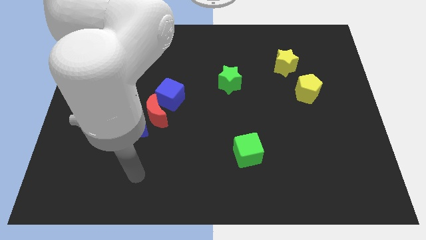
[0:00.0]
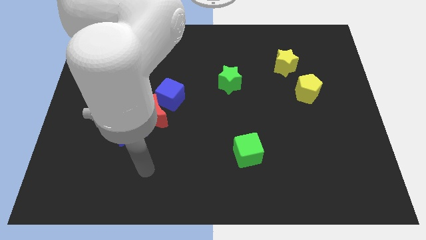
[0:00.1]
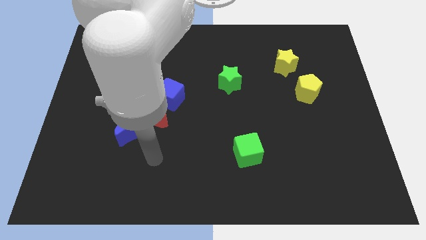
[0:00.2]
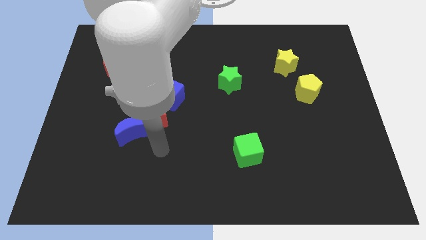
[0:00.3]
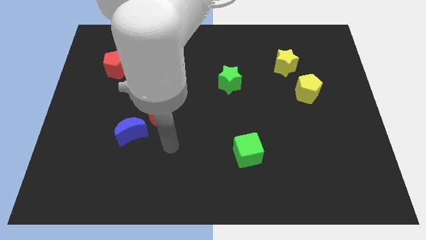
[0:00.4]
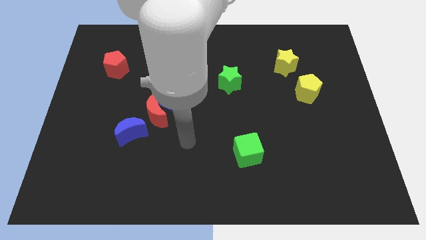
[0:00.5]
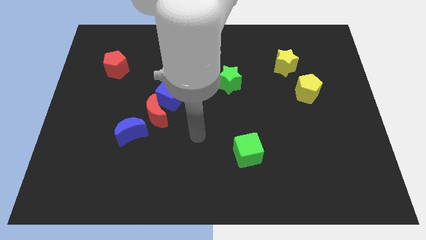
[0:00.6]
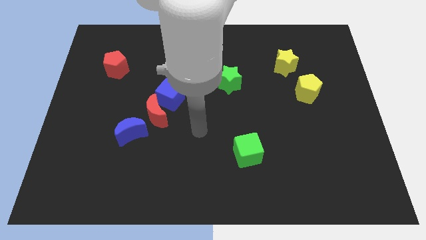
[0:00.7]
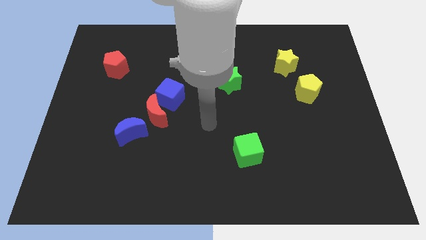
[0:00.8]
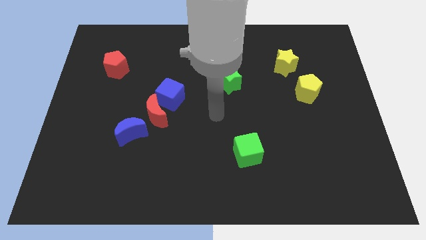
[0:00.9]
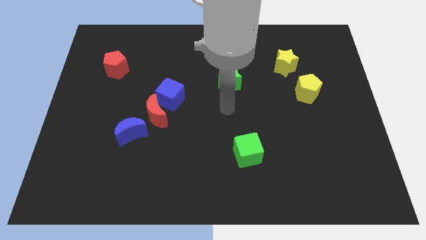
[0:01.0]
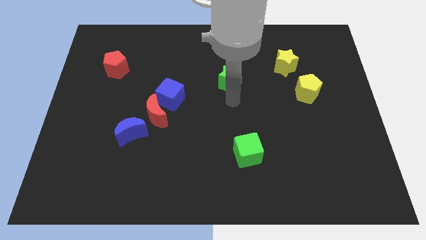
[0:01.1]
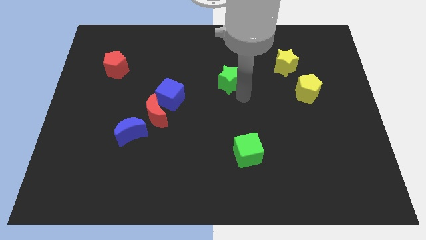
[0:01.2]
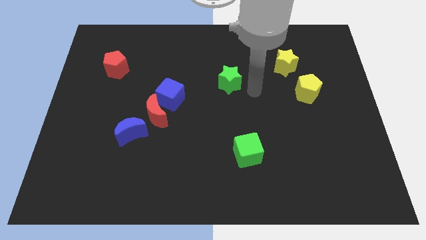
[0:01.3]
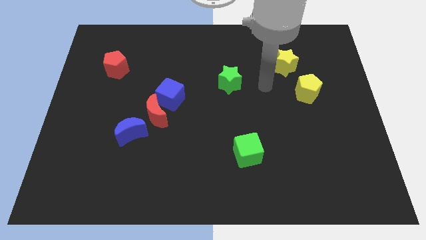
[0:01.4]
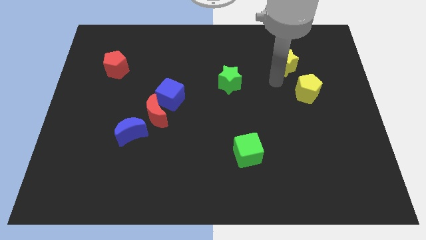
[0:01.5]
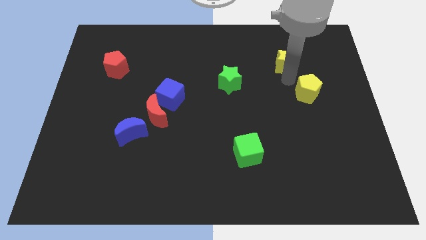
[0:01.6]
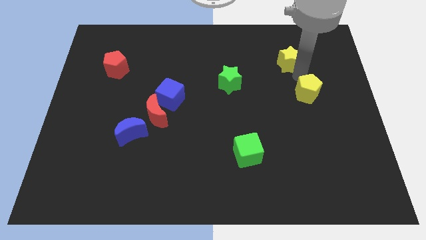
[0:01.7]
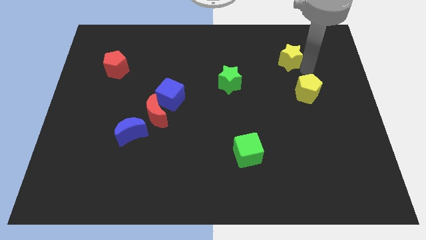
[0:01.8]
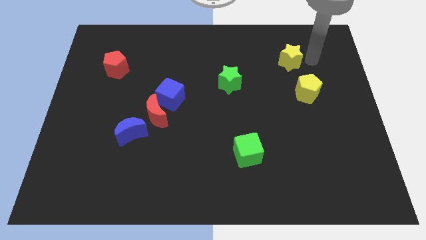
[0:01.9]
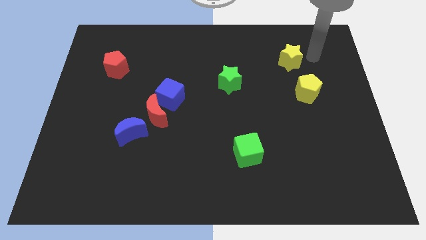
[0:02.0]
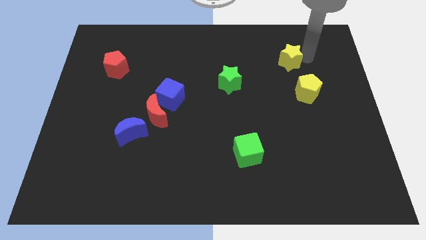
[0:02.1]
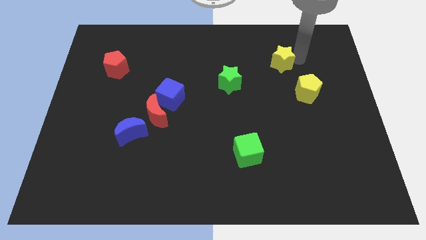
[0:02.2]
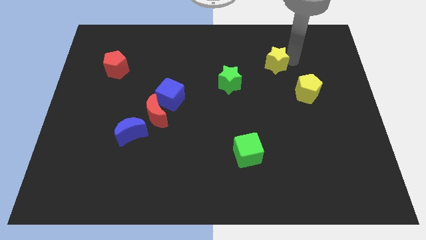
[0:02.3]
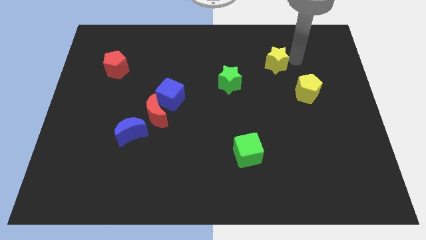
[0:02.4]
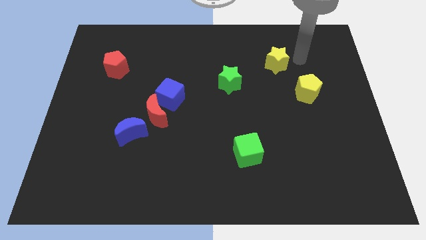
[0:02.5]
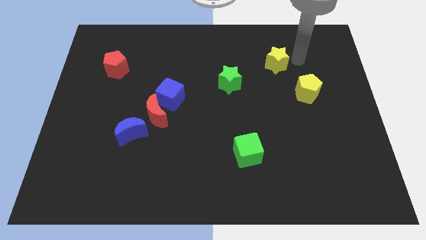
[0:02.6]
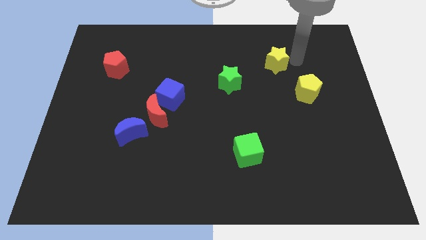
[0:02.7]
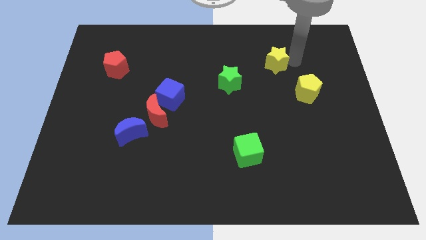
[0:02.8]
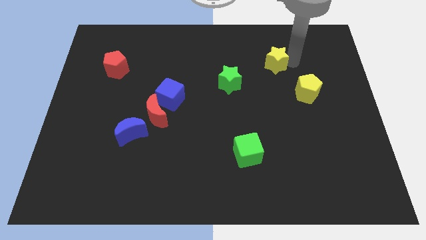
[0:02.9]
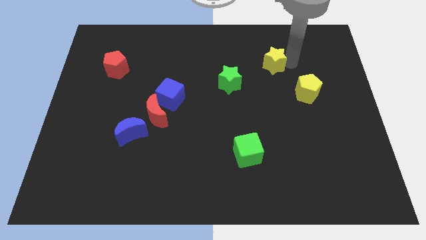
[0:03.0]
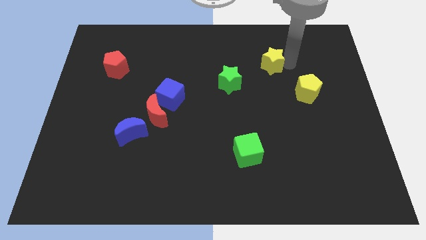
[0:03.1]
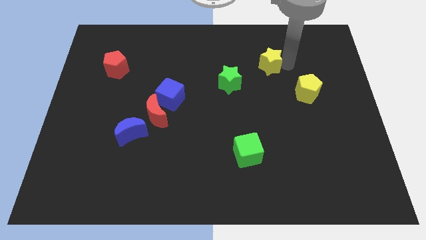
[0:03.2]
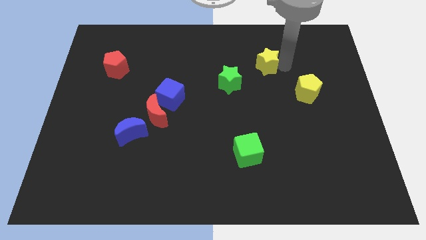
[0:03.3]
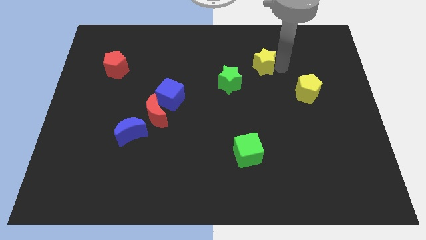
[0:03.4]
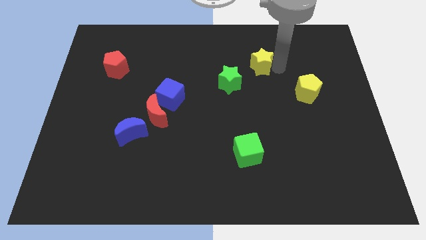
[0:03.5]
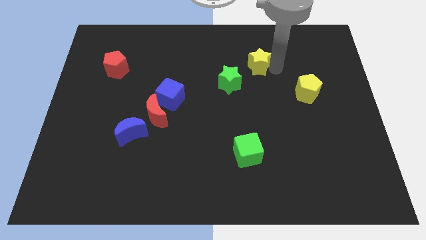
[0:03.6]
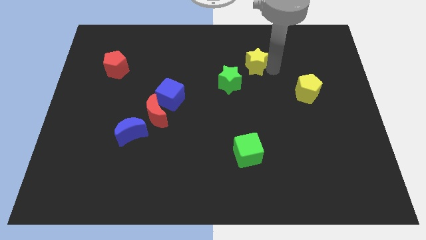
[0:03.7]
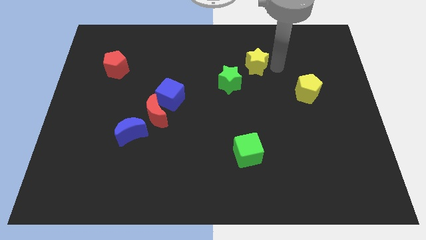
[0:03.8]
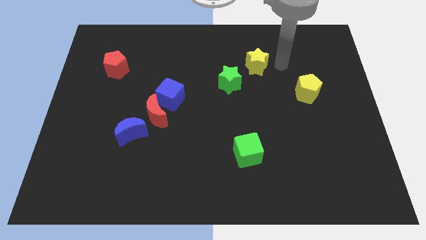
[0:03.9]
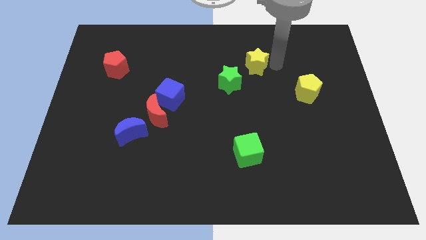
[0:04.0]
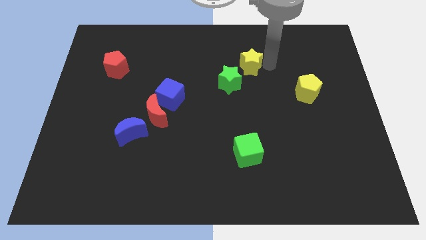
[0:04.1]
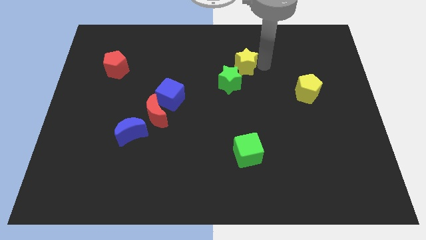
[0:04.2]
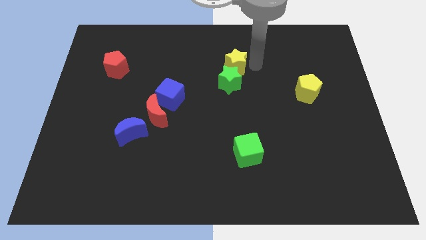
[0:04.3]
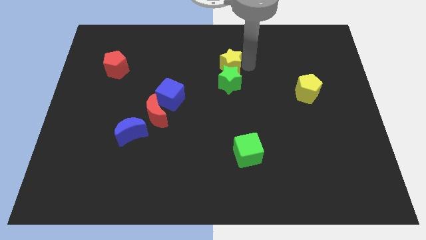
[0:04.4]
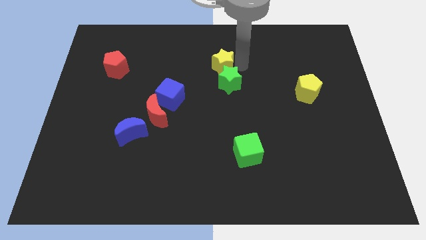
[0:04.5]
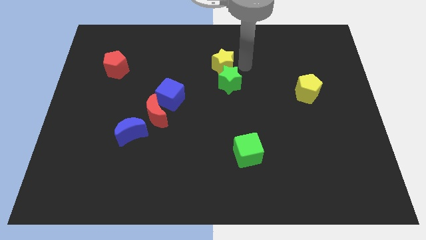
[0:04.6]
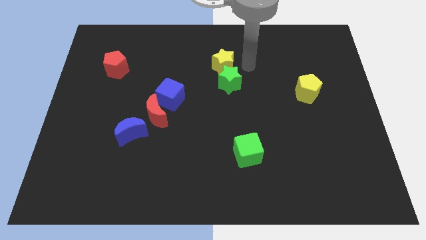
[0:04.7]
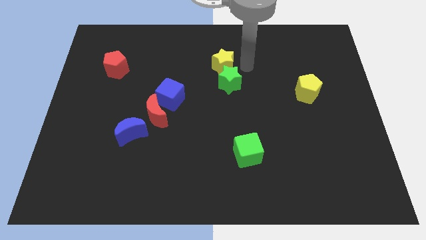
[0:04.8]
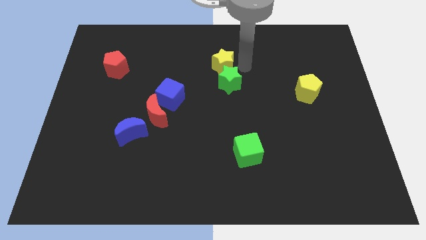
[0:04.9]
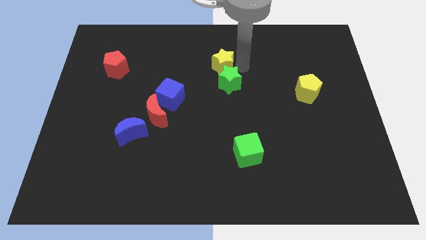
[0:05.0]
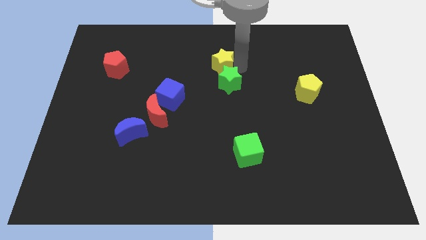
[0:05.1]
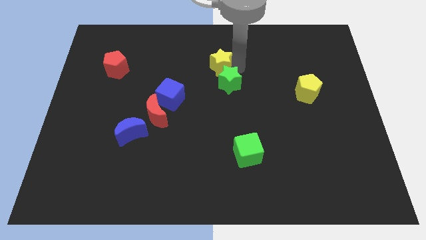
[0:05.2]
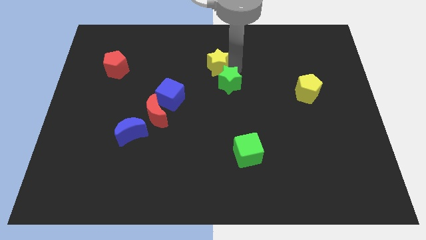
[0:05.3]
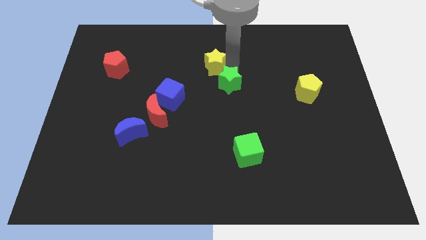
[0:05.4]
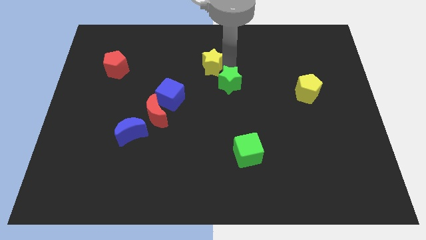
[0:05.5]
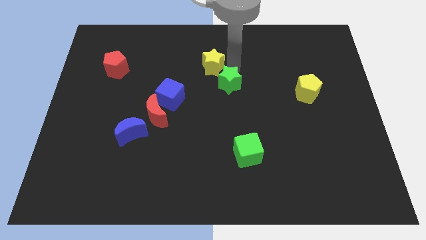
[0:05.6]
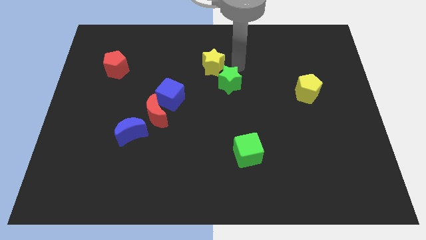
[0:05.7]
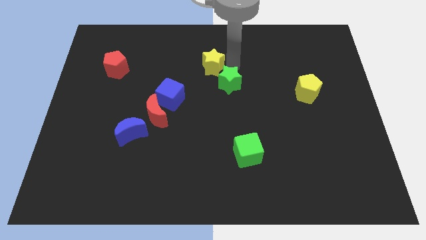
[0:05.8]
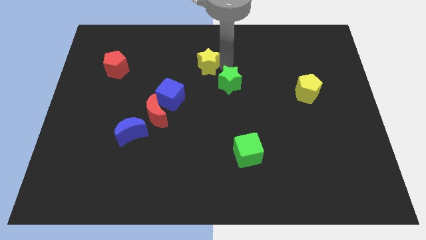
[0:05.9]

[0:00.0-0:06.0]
push the yellow star to the left

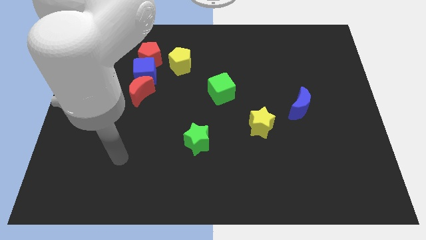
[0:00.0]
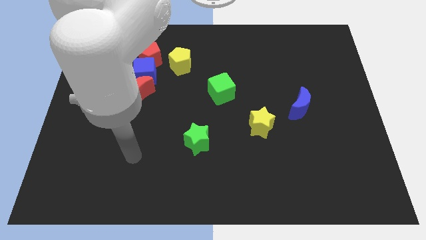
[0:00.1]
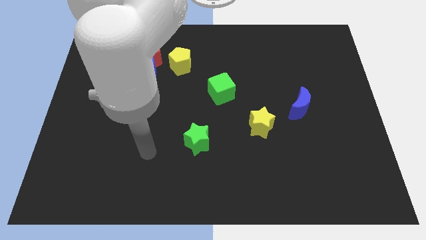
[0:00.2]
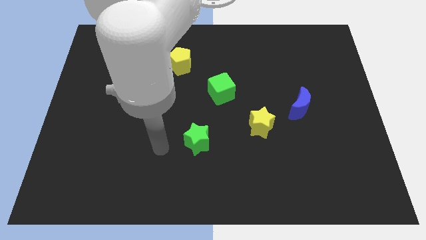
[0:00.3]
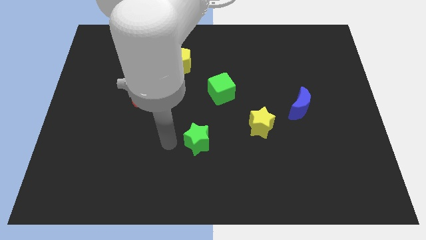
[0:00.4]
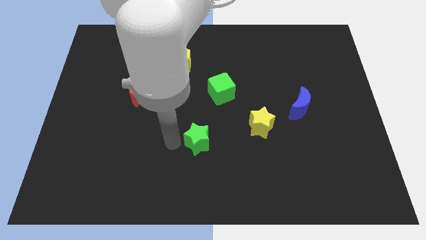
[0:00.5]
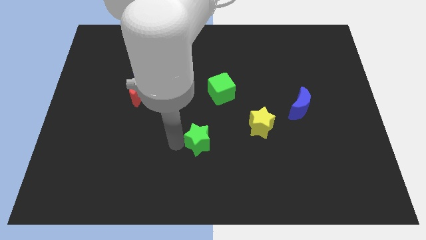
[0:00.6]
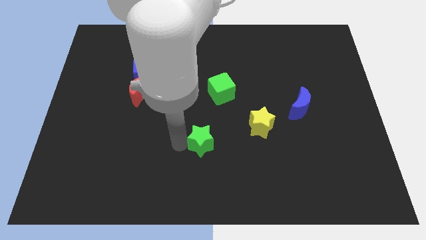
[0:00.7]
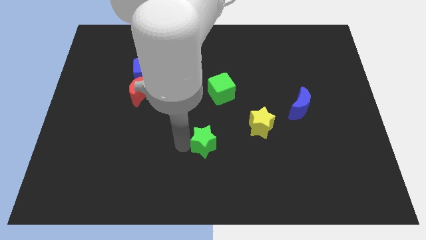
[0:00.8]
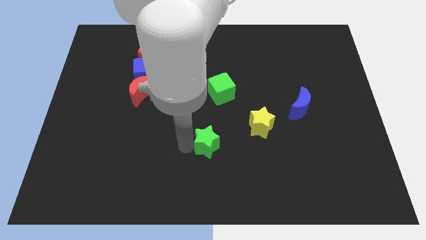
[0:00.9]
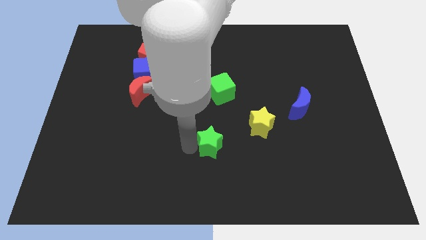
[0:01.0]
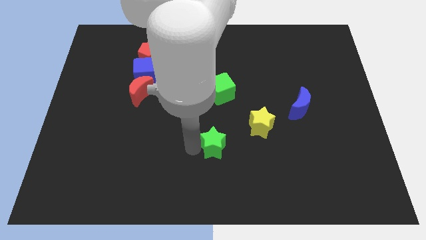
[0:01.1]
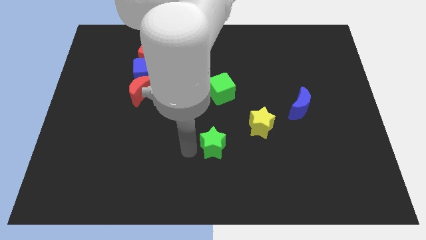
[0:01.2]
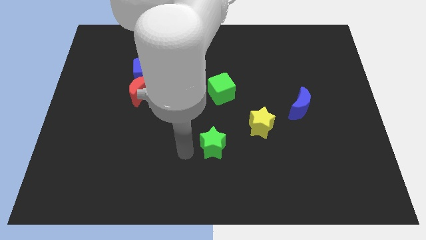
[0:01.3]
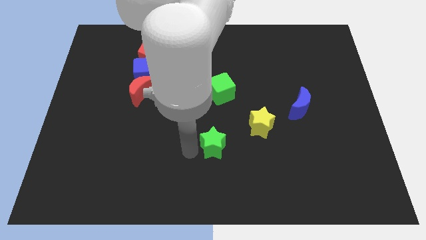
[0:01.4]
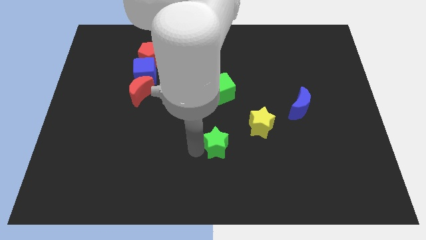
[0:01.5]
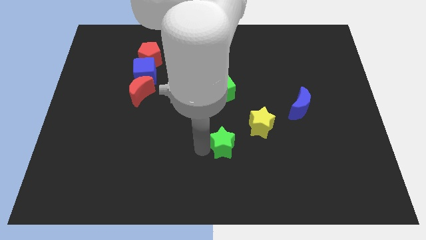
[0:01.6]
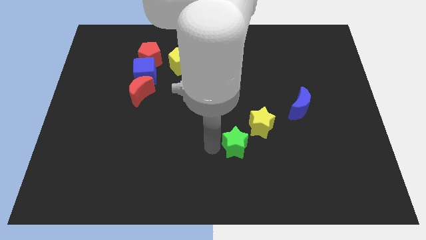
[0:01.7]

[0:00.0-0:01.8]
slide the green star to the right a little

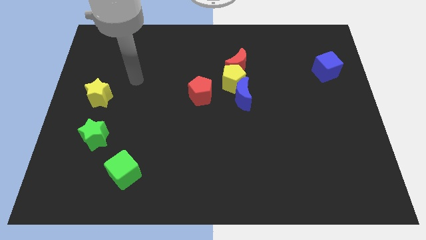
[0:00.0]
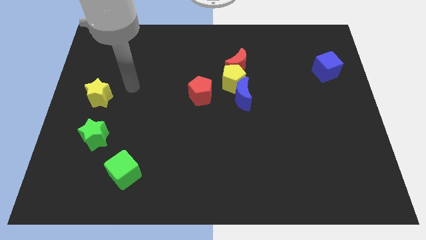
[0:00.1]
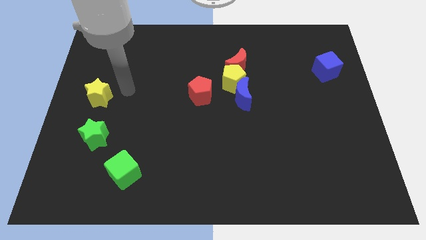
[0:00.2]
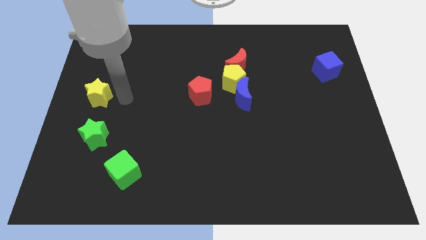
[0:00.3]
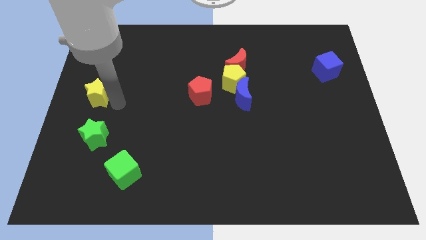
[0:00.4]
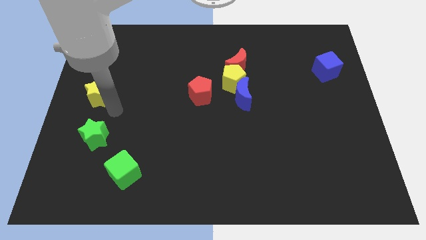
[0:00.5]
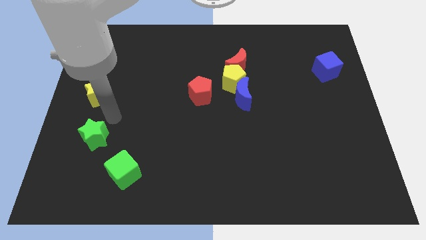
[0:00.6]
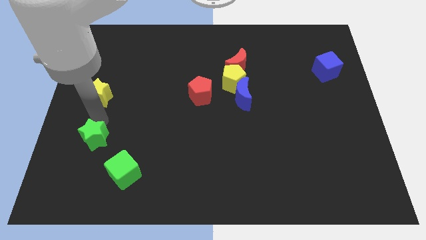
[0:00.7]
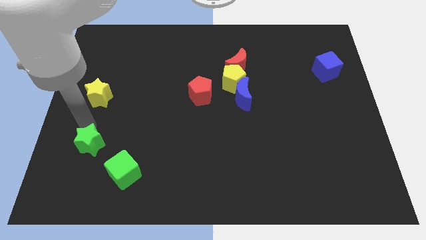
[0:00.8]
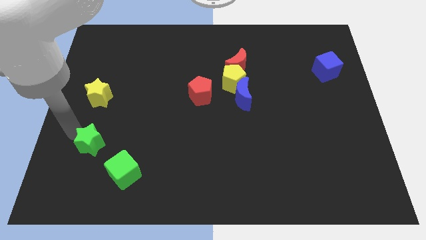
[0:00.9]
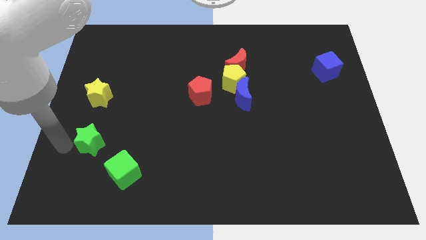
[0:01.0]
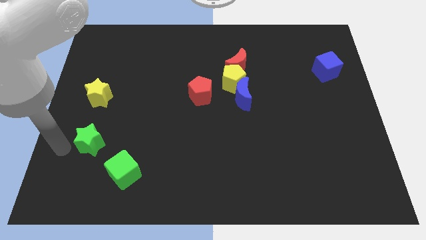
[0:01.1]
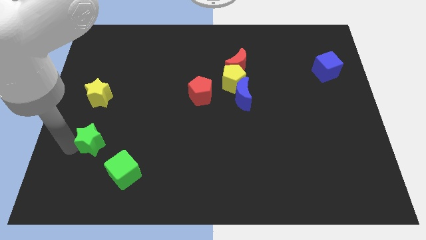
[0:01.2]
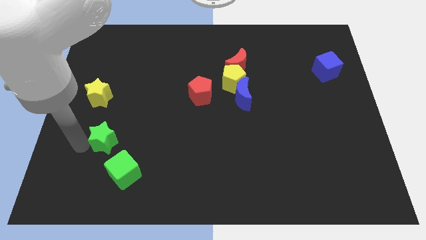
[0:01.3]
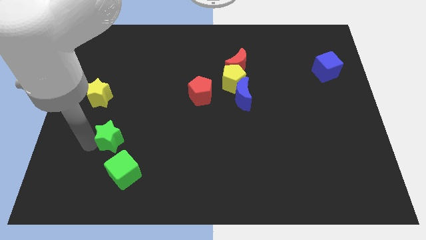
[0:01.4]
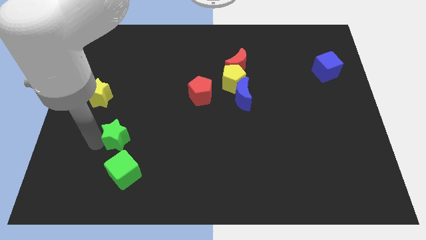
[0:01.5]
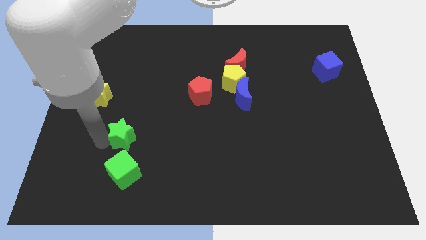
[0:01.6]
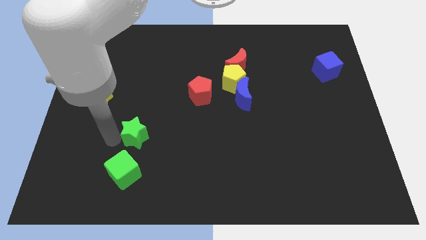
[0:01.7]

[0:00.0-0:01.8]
slide the green star a little bit right
